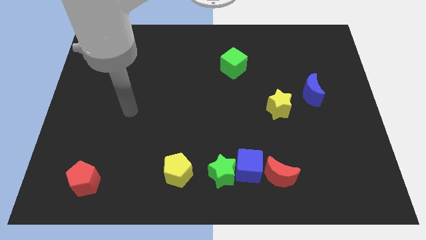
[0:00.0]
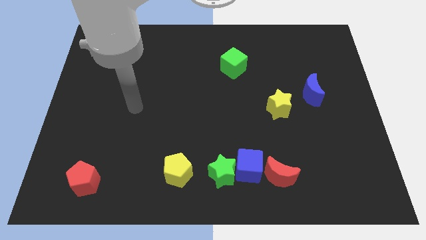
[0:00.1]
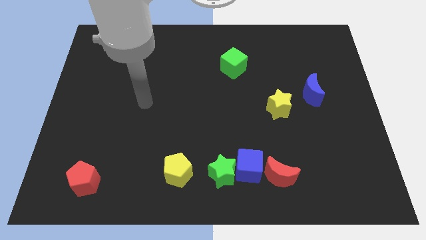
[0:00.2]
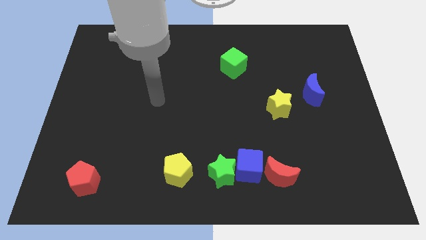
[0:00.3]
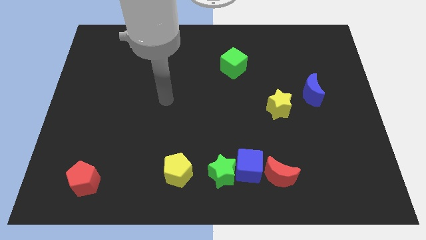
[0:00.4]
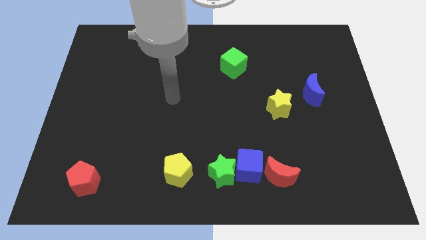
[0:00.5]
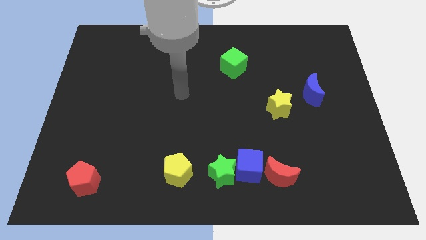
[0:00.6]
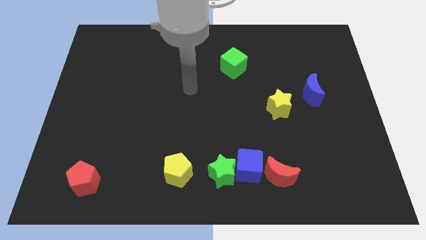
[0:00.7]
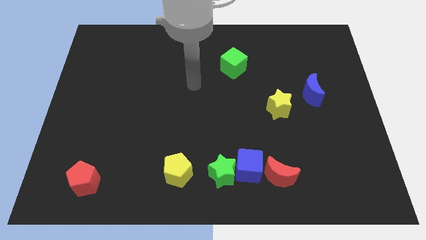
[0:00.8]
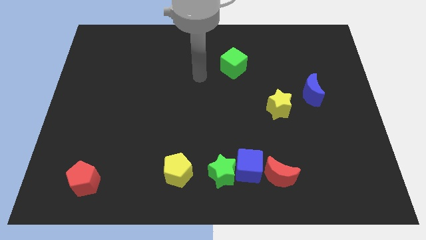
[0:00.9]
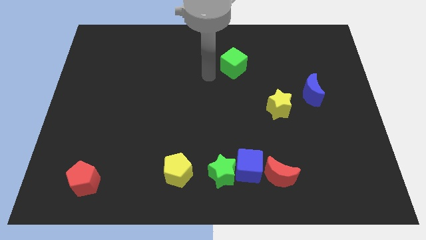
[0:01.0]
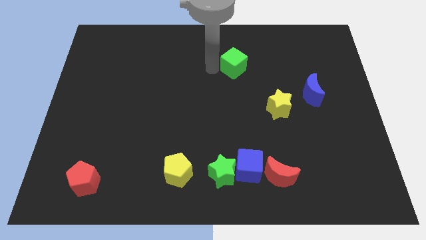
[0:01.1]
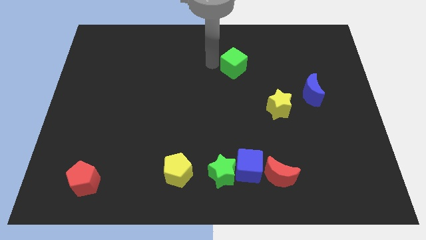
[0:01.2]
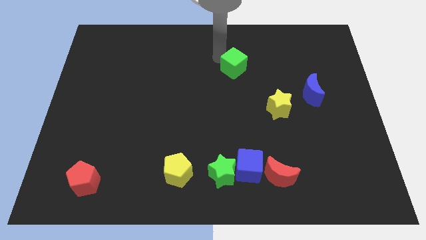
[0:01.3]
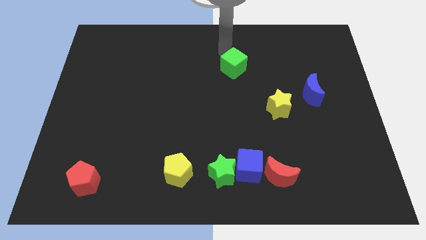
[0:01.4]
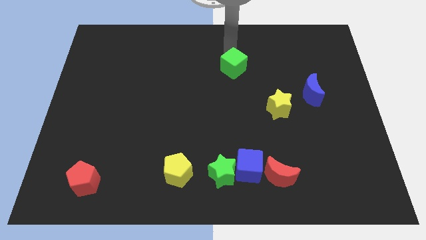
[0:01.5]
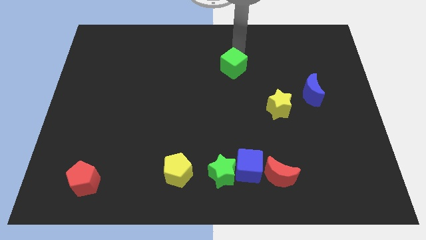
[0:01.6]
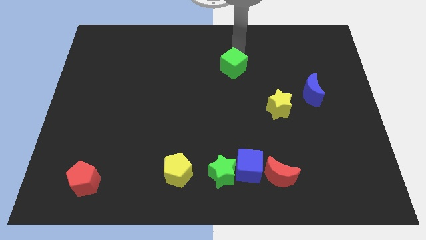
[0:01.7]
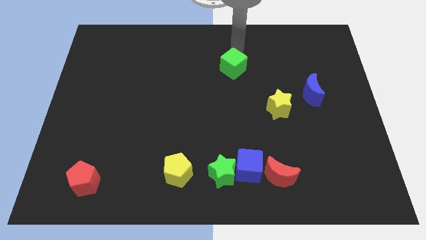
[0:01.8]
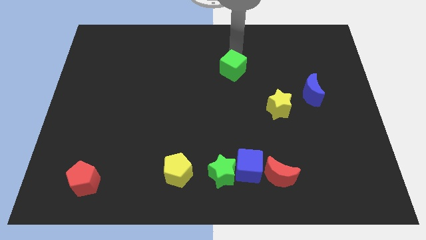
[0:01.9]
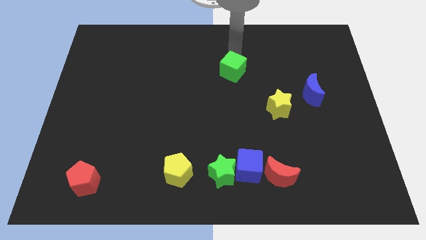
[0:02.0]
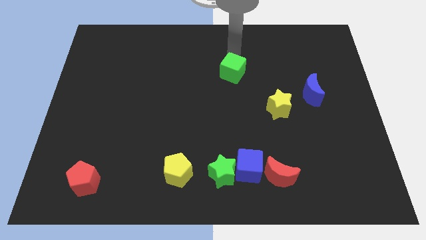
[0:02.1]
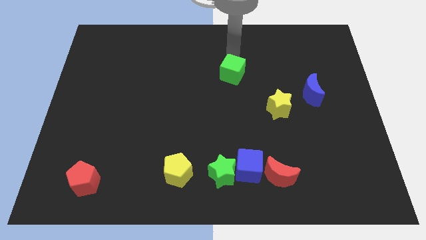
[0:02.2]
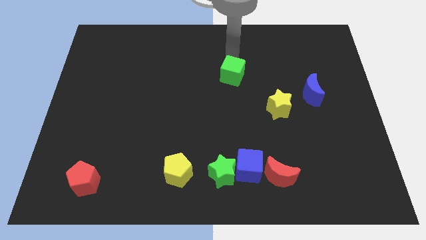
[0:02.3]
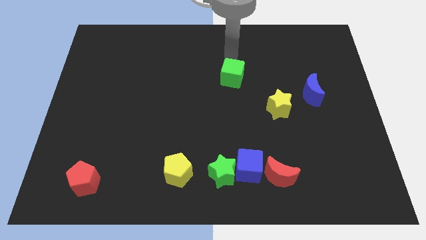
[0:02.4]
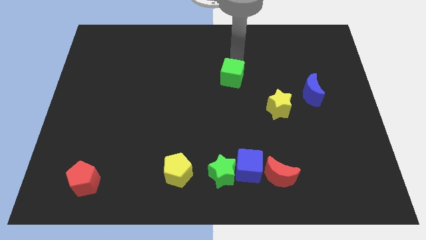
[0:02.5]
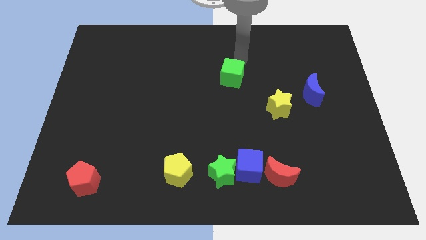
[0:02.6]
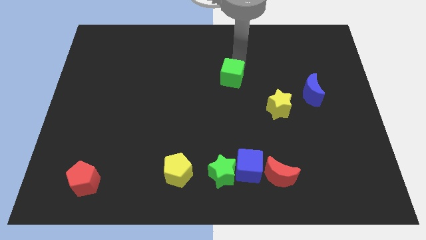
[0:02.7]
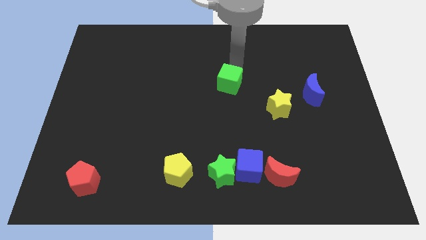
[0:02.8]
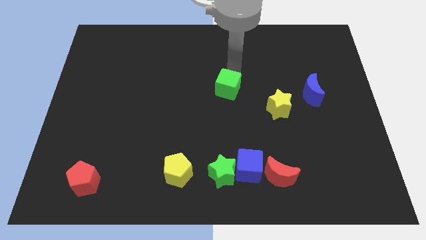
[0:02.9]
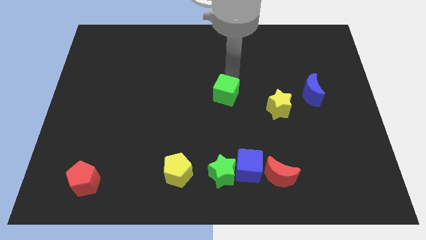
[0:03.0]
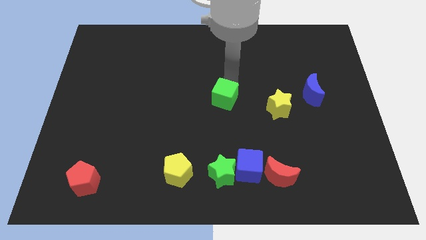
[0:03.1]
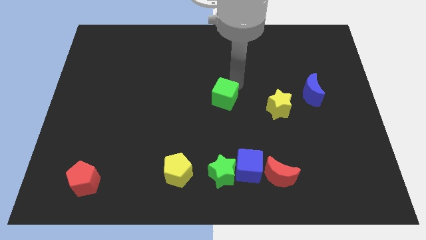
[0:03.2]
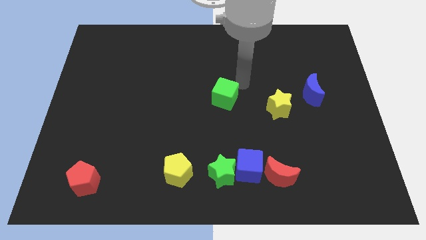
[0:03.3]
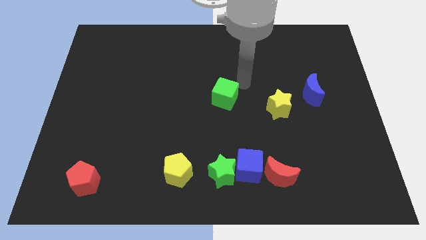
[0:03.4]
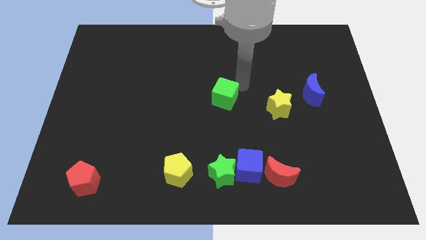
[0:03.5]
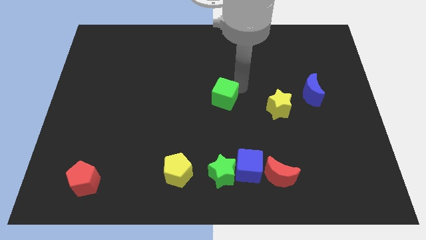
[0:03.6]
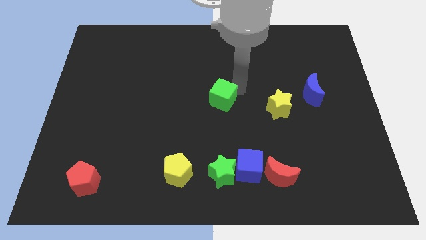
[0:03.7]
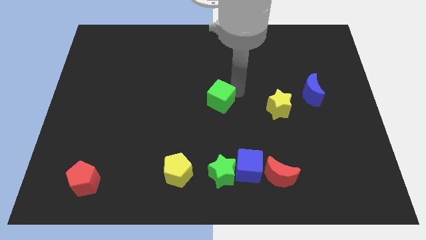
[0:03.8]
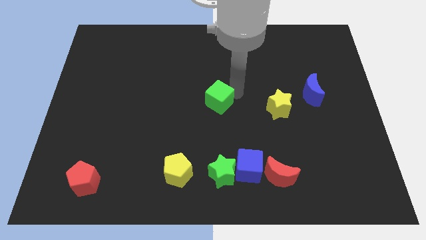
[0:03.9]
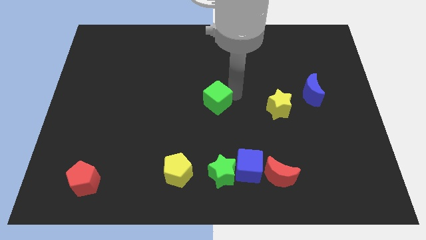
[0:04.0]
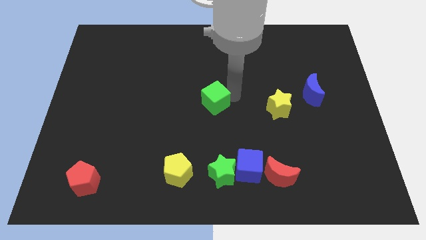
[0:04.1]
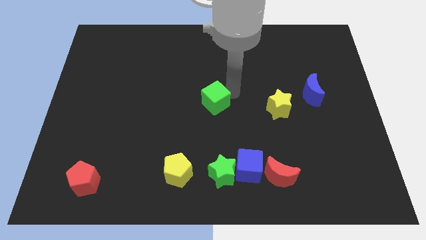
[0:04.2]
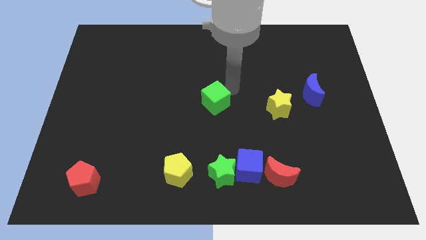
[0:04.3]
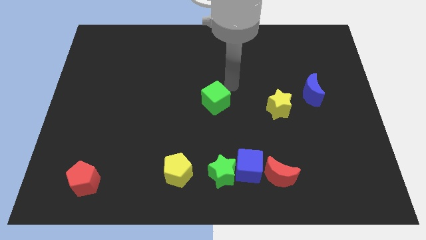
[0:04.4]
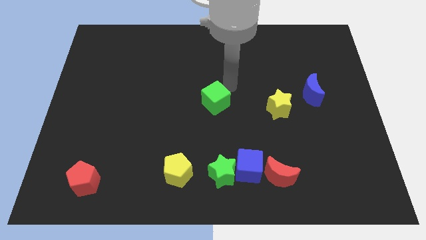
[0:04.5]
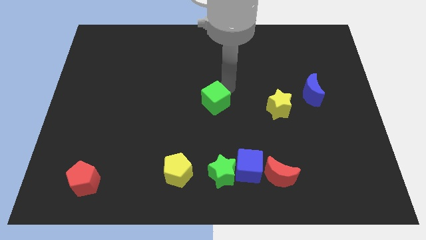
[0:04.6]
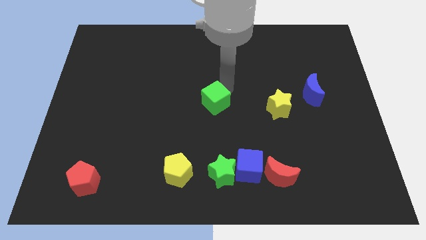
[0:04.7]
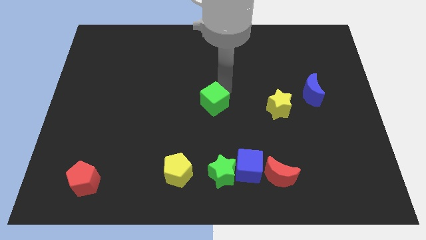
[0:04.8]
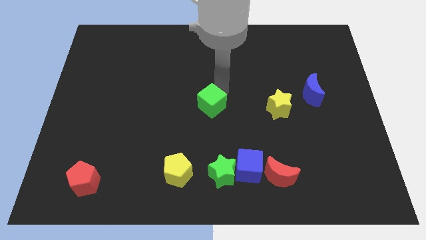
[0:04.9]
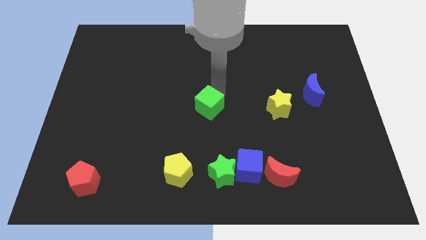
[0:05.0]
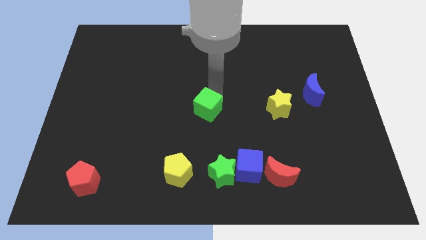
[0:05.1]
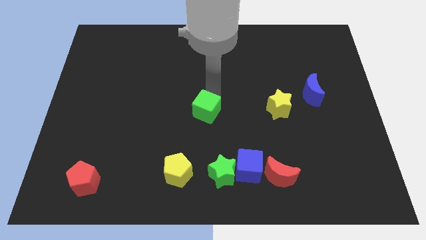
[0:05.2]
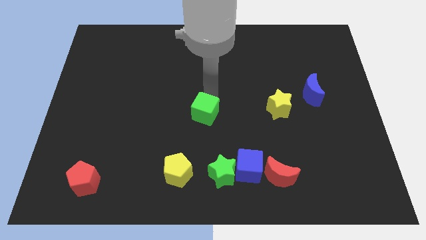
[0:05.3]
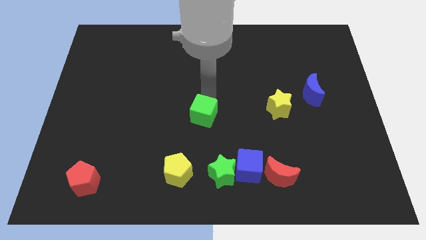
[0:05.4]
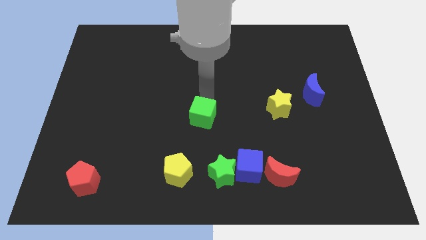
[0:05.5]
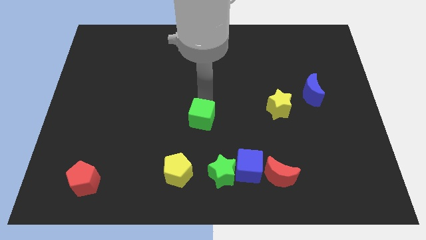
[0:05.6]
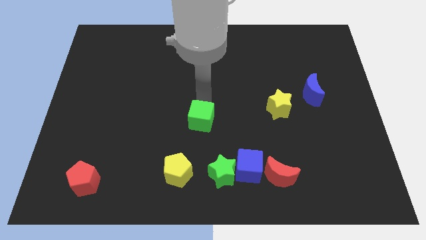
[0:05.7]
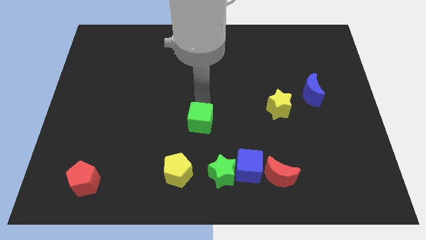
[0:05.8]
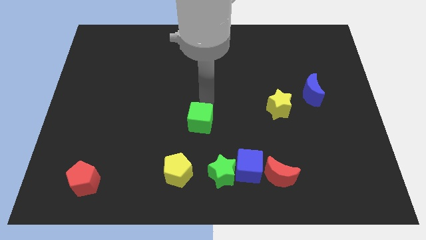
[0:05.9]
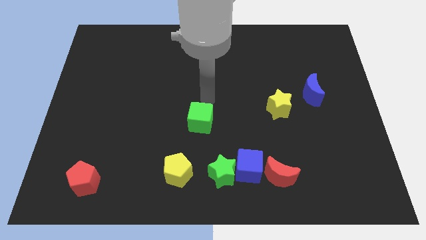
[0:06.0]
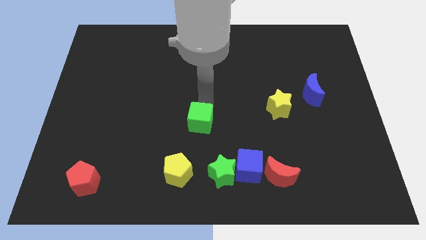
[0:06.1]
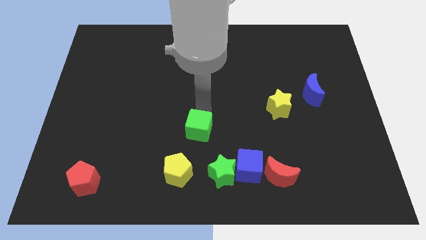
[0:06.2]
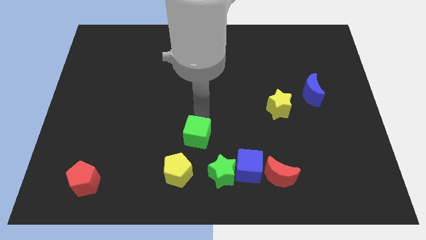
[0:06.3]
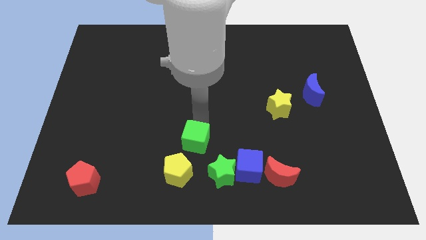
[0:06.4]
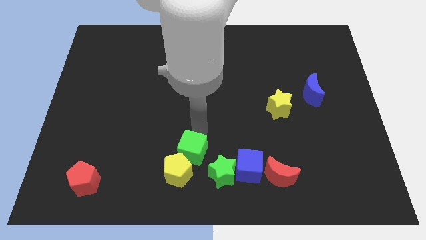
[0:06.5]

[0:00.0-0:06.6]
slide the green cube next to the yellow pentagon

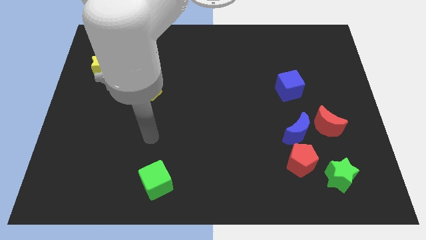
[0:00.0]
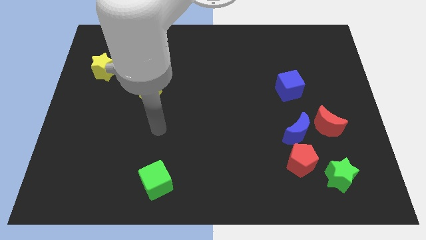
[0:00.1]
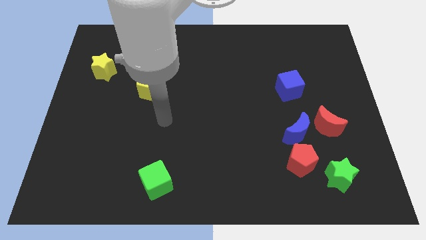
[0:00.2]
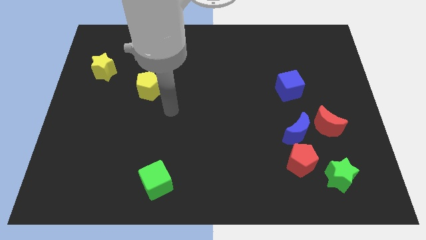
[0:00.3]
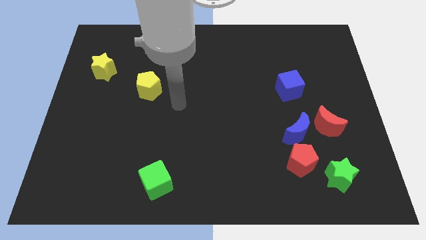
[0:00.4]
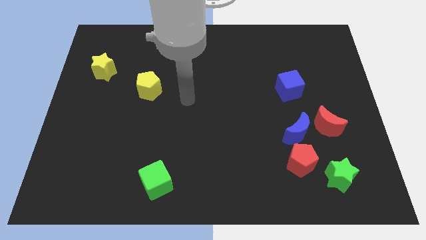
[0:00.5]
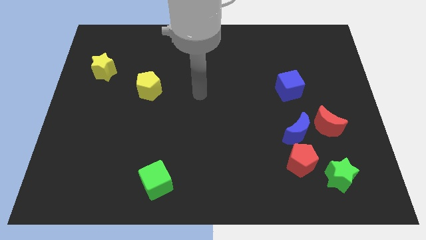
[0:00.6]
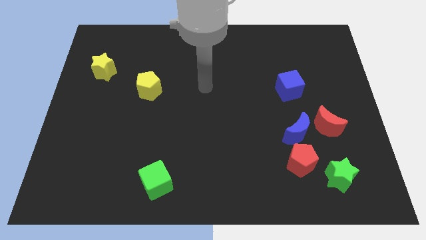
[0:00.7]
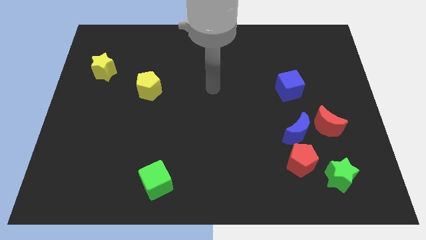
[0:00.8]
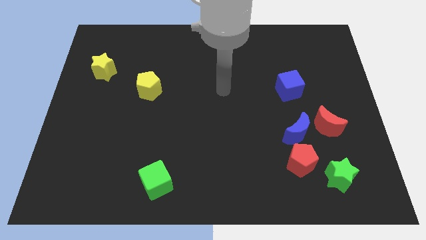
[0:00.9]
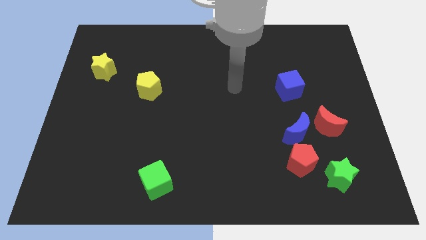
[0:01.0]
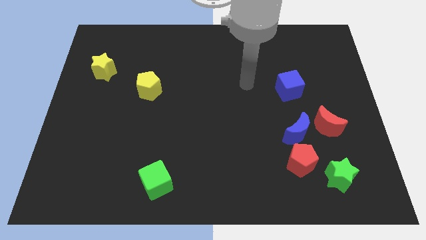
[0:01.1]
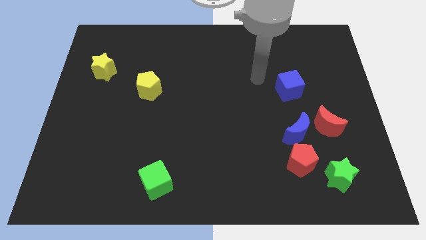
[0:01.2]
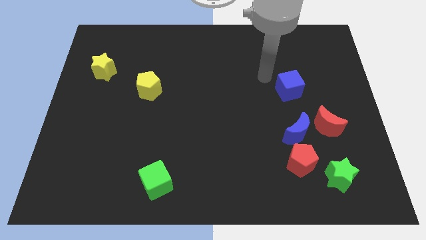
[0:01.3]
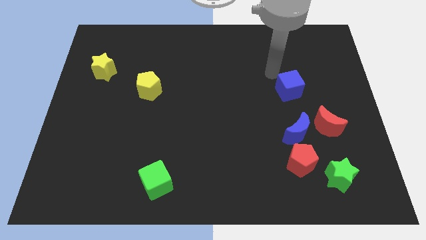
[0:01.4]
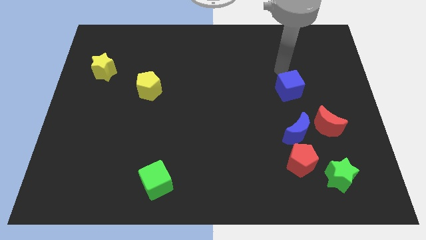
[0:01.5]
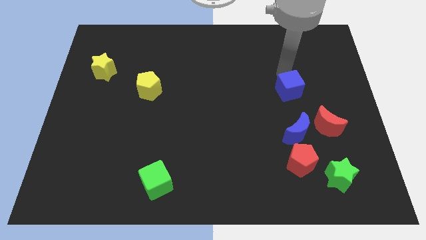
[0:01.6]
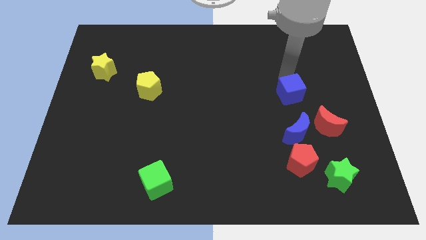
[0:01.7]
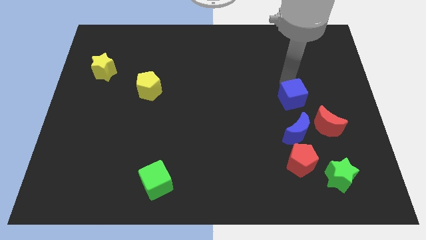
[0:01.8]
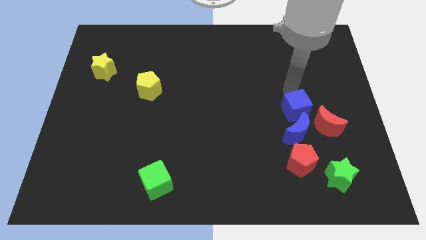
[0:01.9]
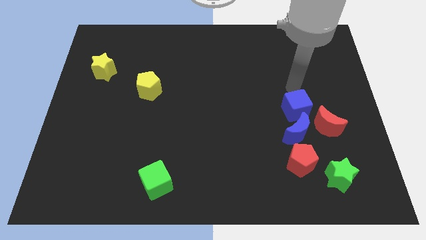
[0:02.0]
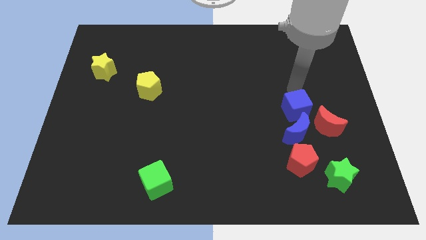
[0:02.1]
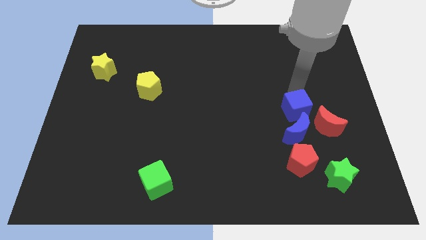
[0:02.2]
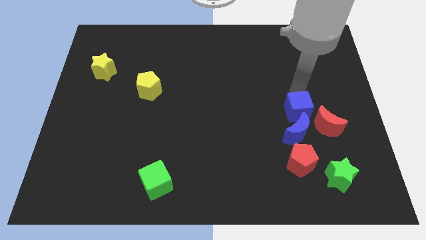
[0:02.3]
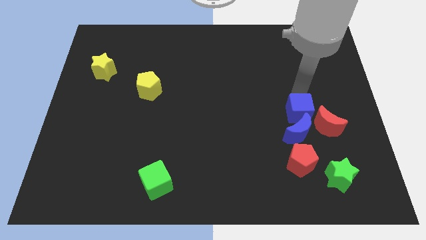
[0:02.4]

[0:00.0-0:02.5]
put the blue cube towards the blue moon
